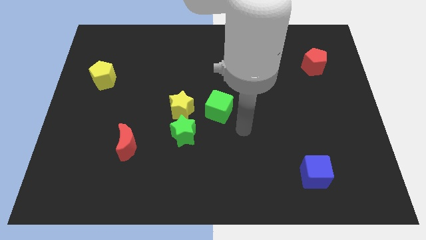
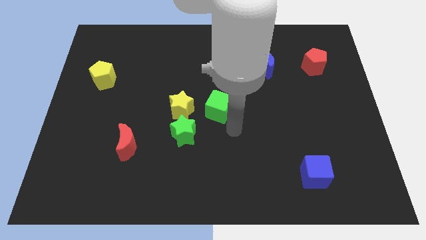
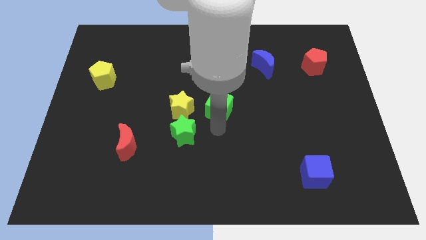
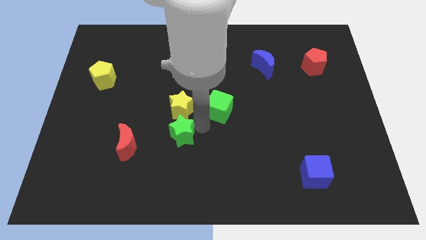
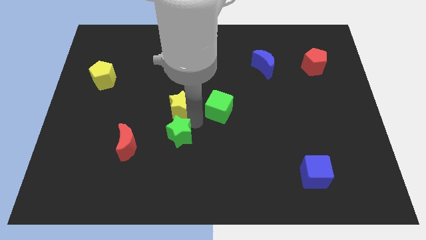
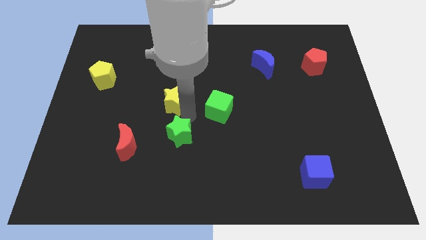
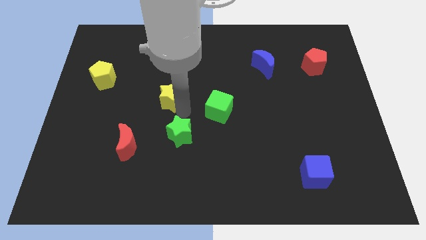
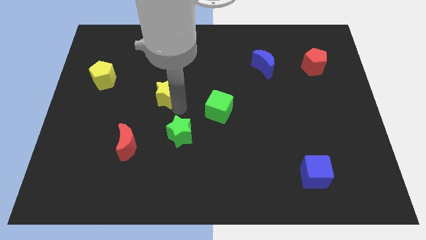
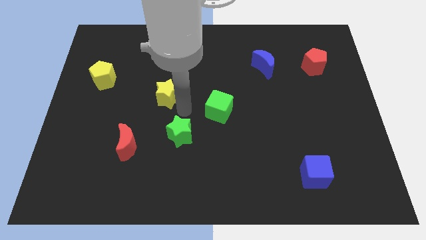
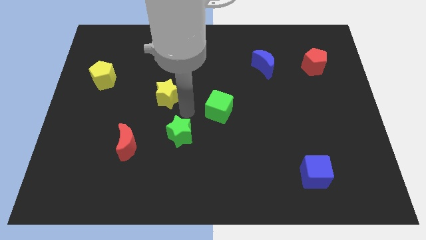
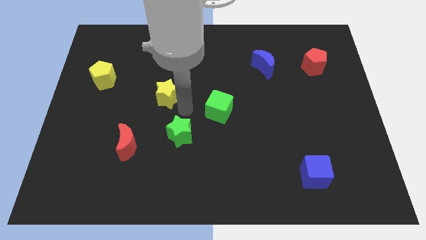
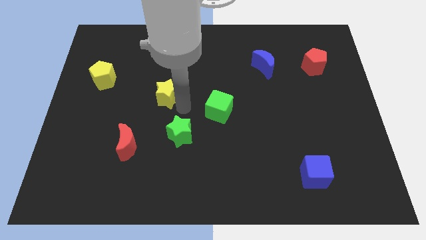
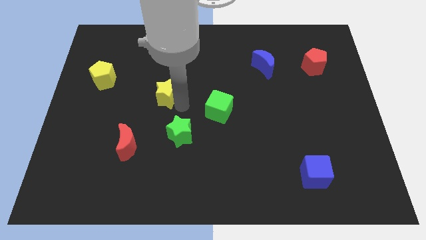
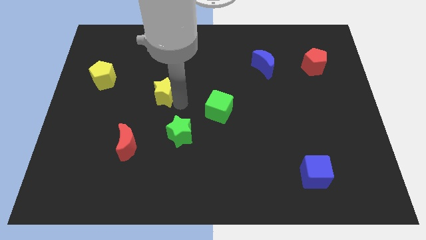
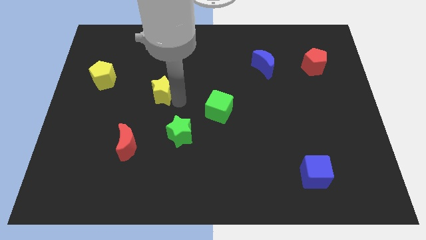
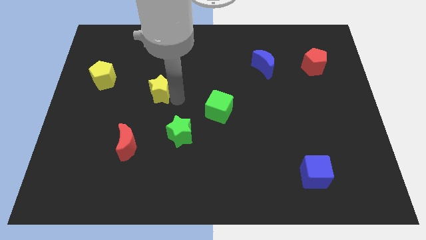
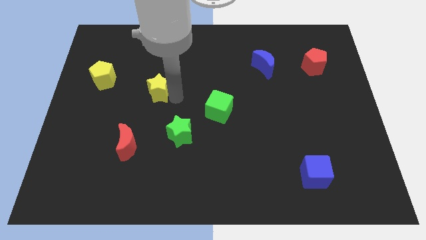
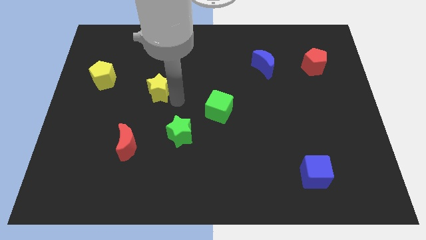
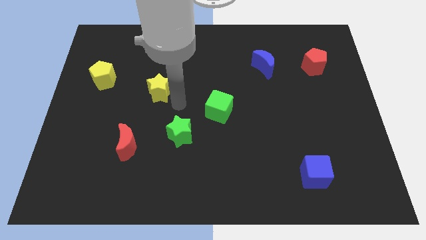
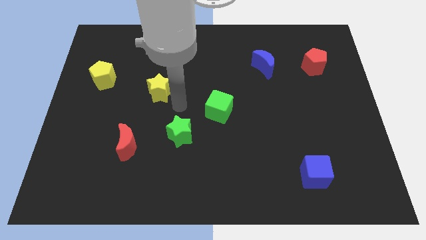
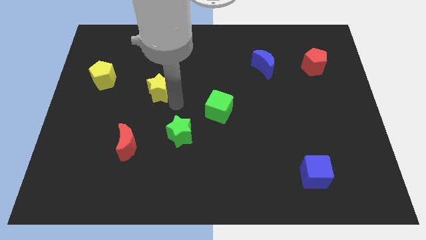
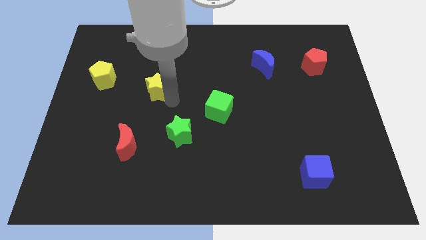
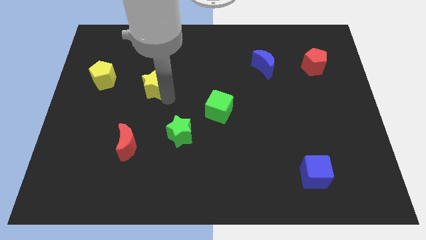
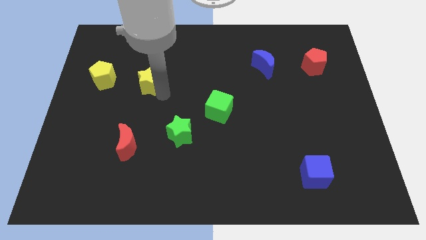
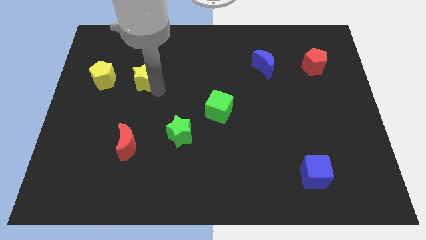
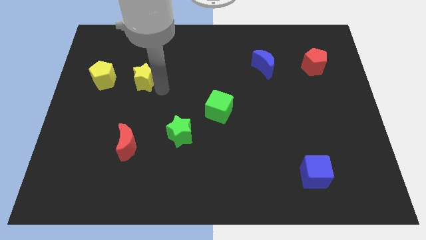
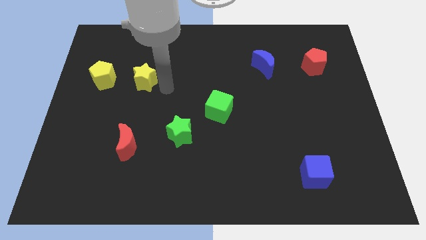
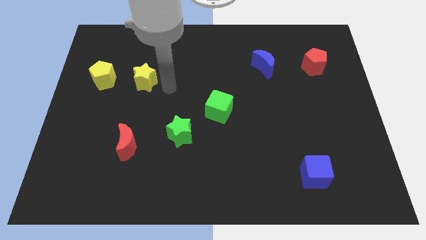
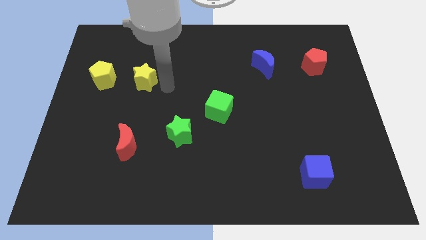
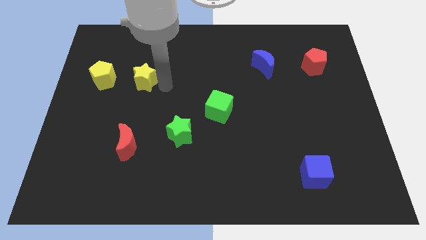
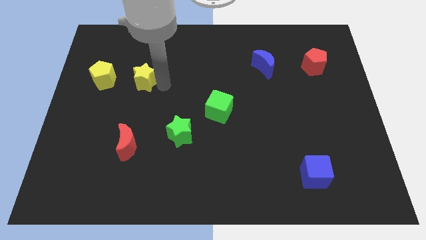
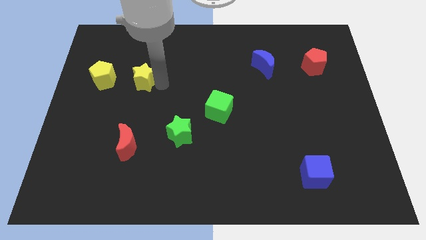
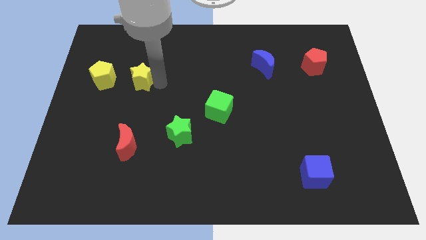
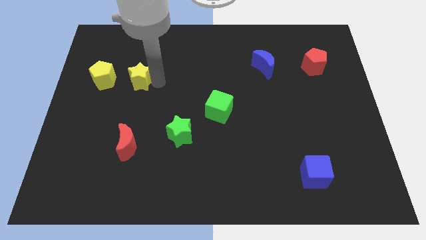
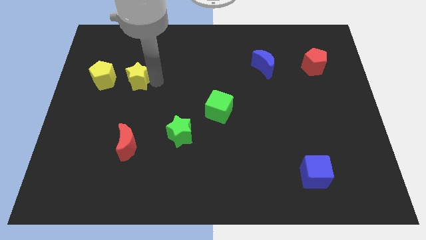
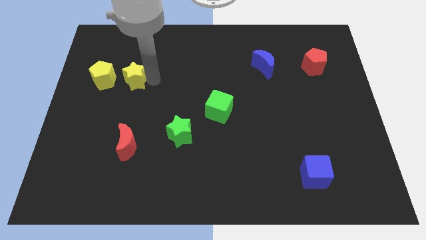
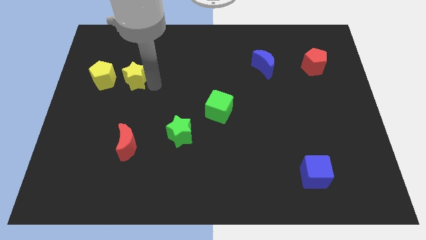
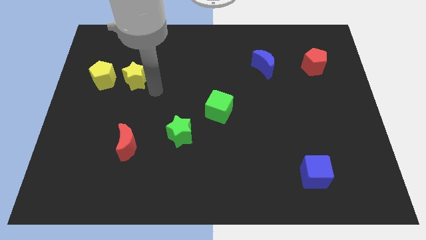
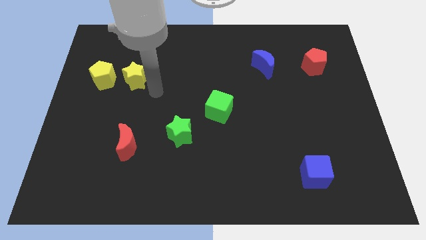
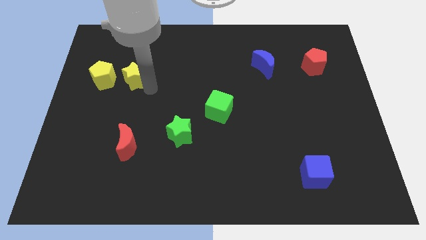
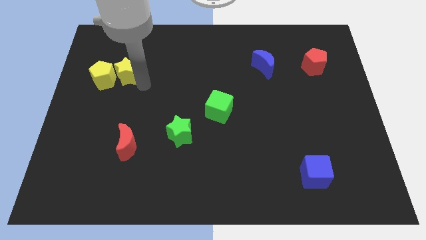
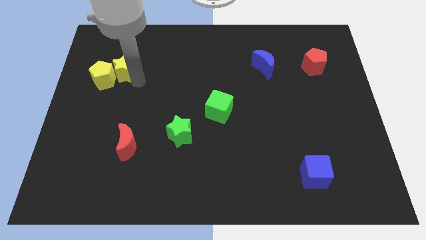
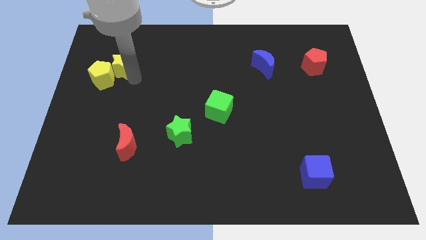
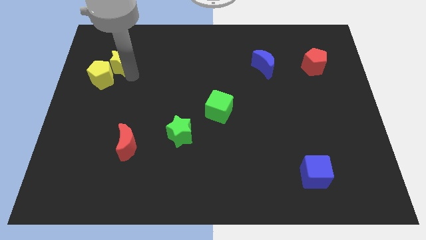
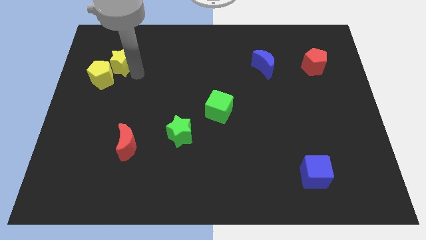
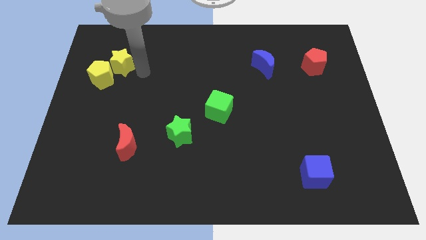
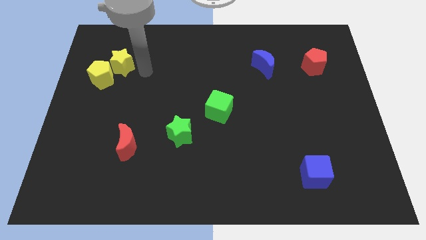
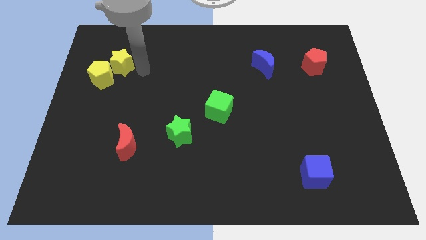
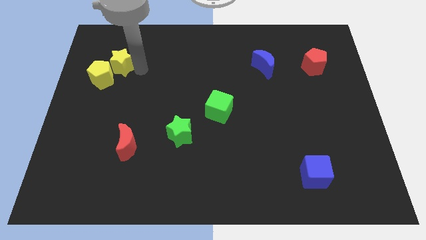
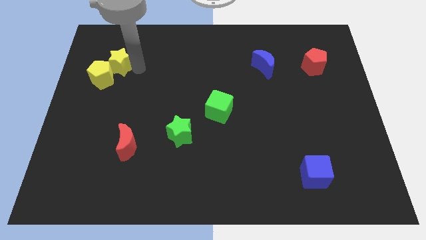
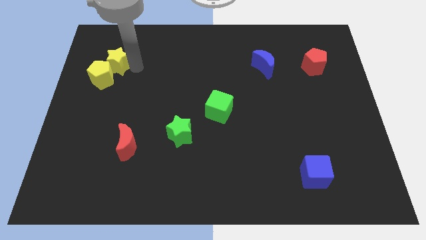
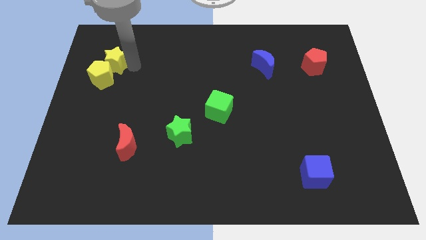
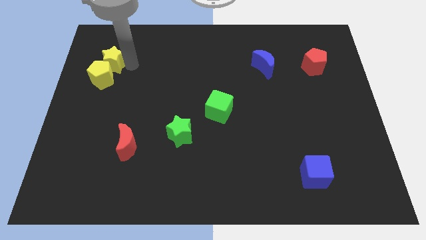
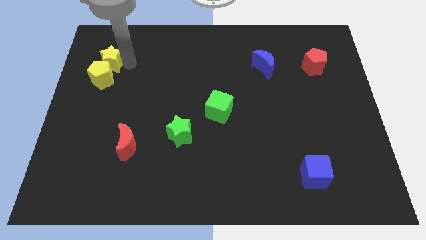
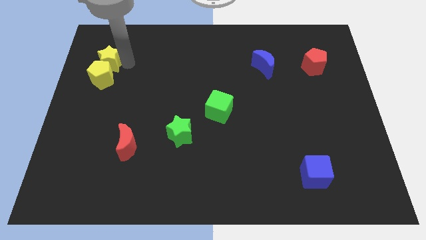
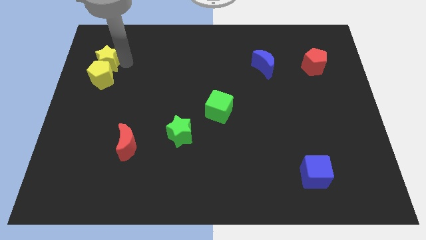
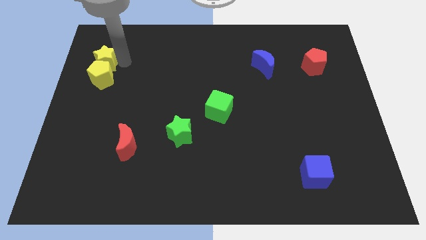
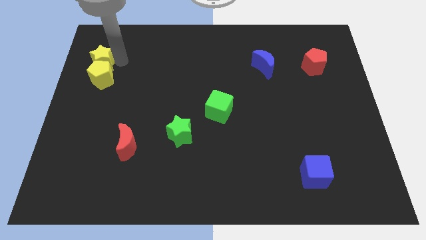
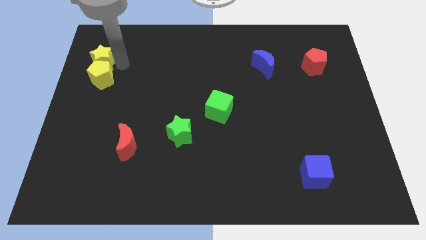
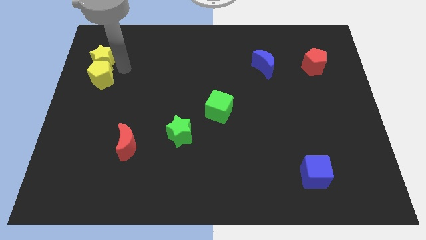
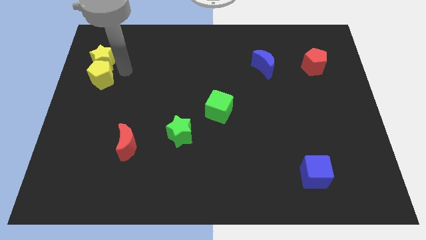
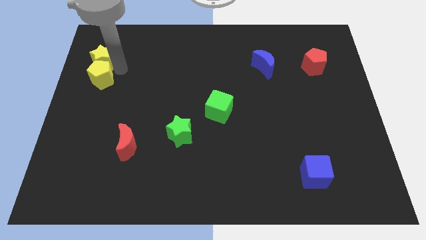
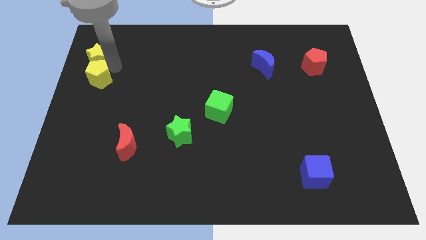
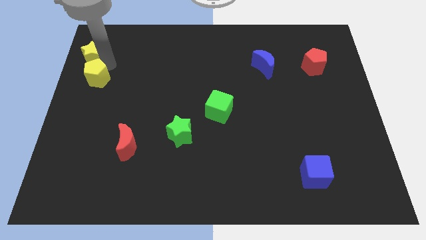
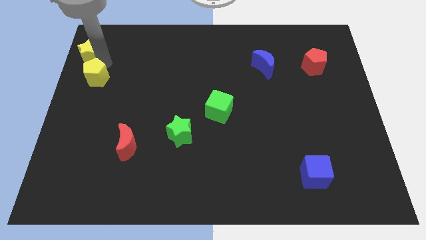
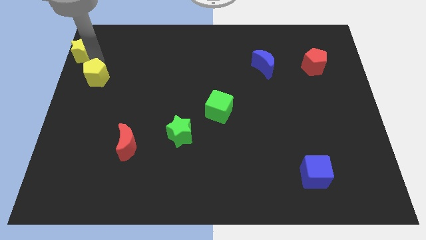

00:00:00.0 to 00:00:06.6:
slide the yellow star to the top left of the board
